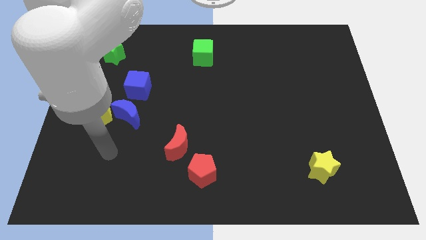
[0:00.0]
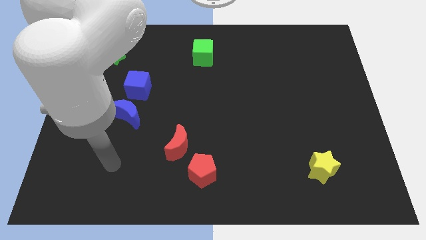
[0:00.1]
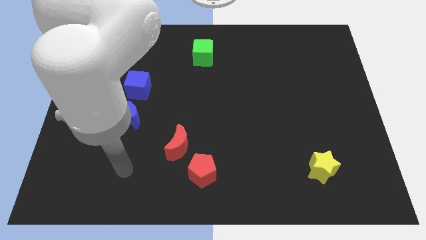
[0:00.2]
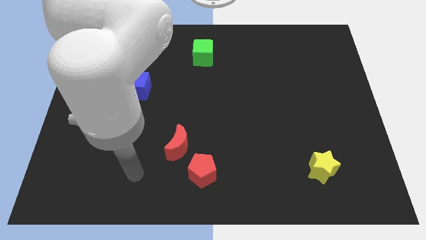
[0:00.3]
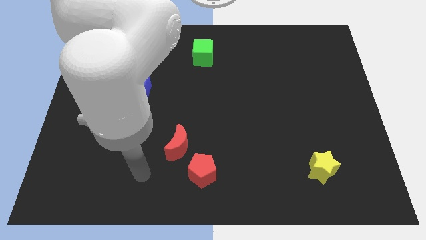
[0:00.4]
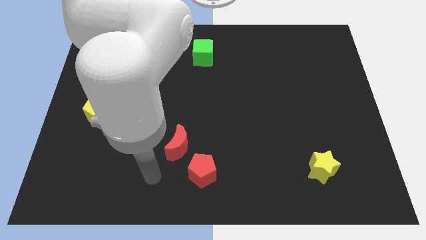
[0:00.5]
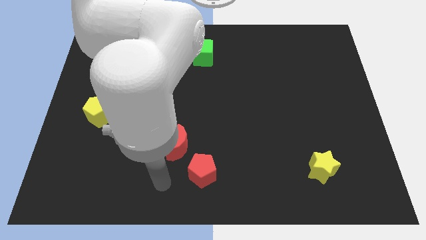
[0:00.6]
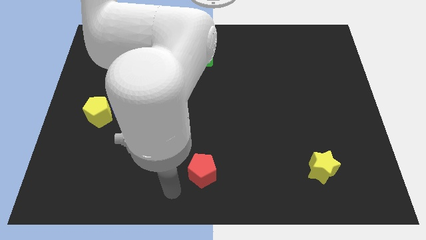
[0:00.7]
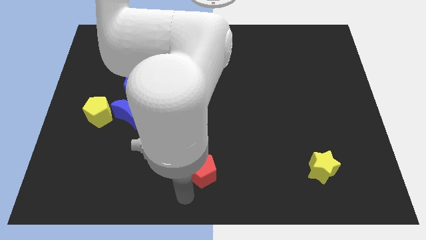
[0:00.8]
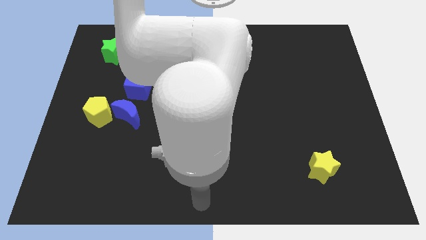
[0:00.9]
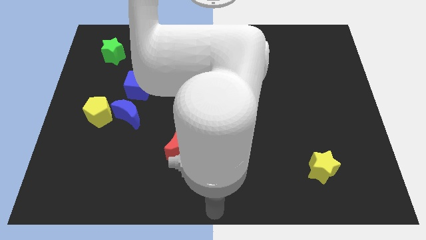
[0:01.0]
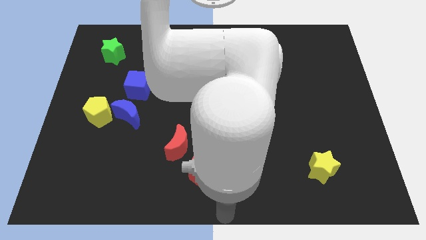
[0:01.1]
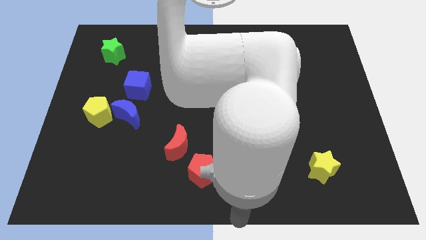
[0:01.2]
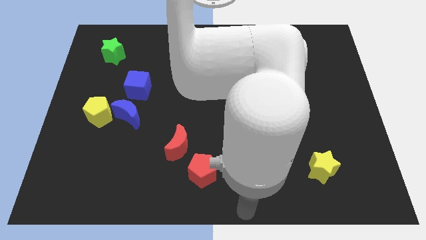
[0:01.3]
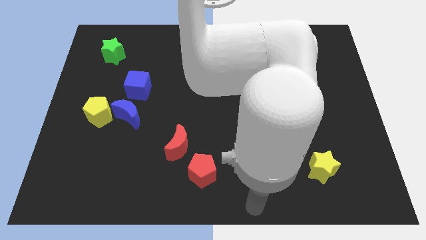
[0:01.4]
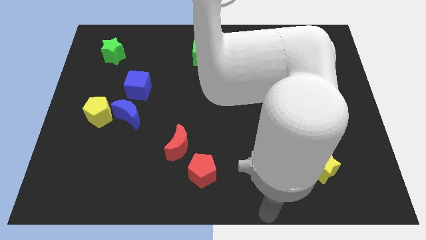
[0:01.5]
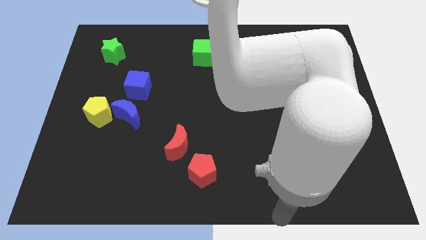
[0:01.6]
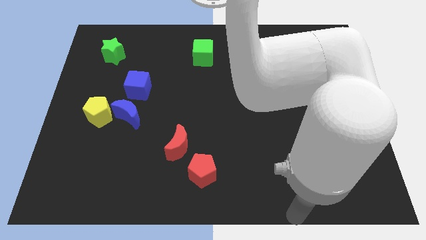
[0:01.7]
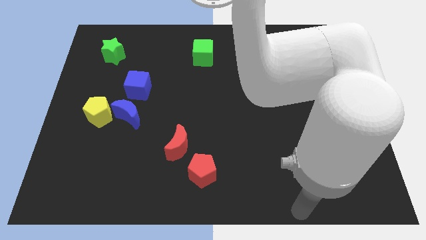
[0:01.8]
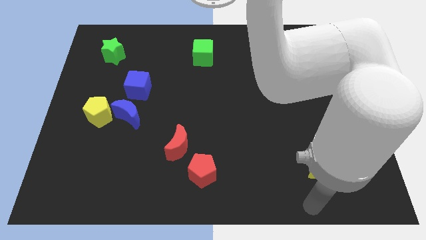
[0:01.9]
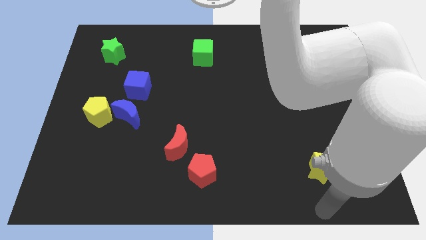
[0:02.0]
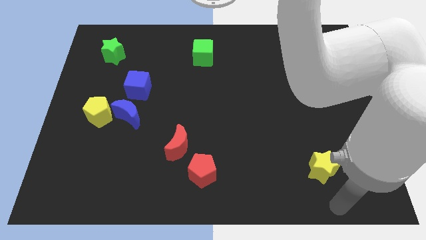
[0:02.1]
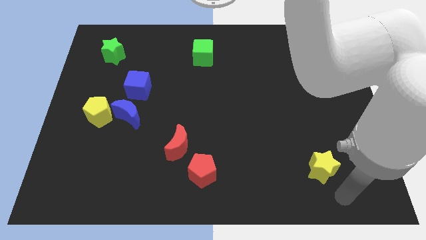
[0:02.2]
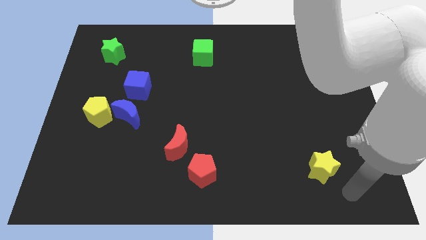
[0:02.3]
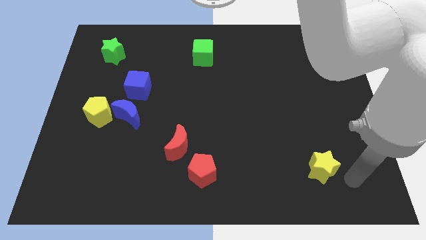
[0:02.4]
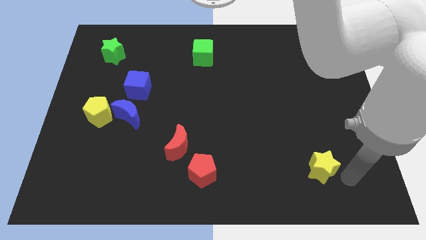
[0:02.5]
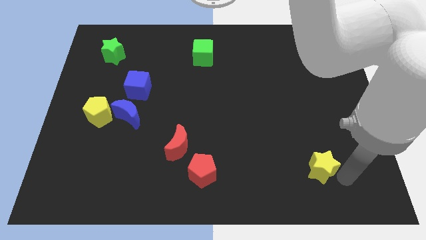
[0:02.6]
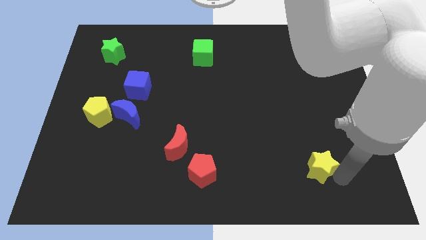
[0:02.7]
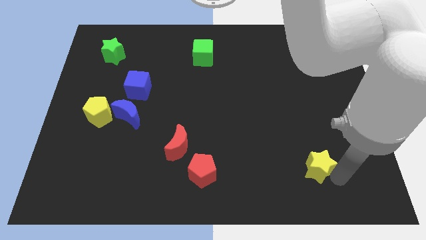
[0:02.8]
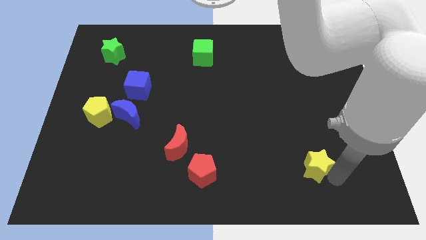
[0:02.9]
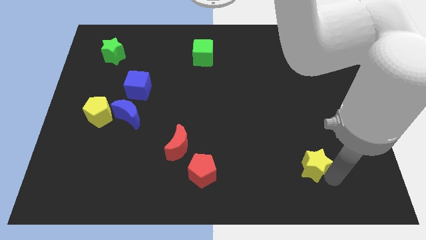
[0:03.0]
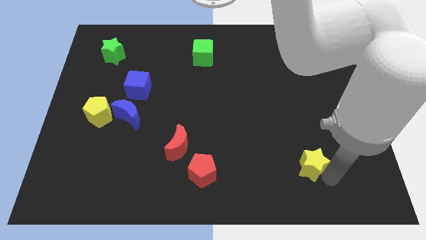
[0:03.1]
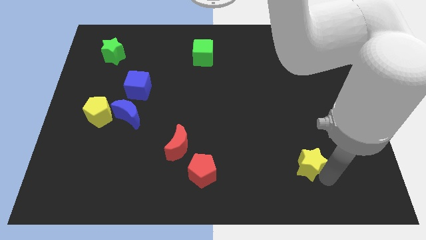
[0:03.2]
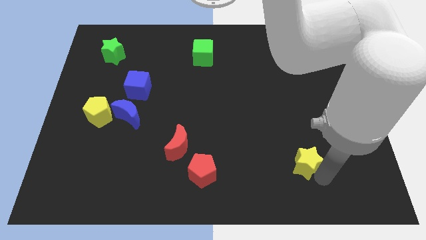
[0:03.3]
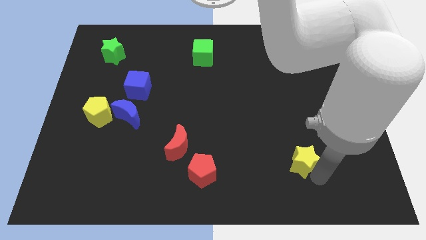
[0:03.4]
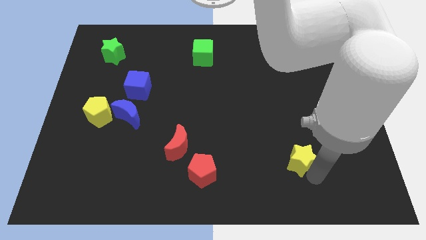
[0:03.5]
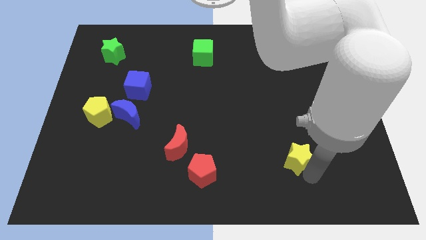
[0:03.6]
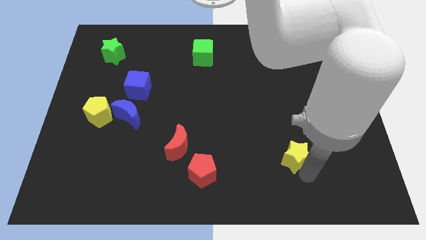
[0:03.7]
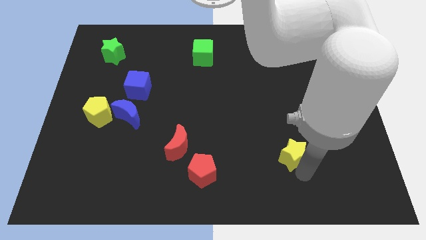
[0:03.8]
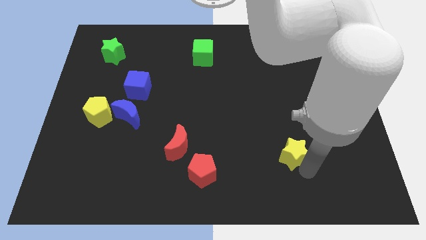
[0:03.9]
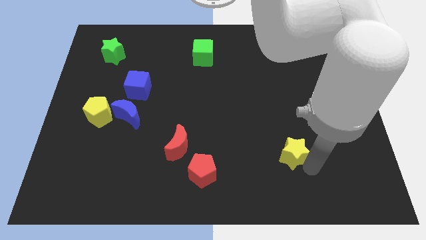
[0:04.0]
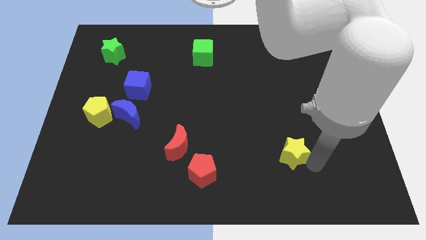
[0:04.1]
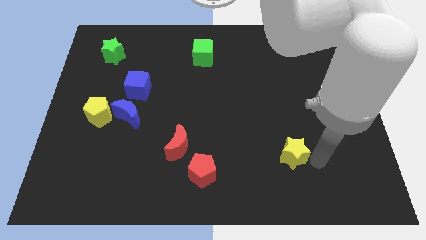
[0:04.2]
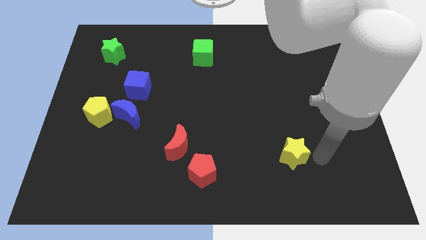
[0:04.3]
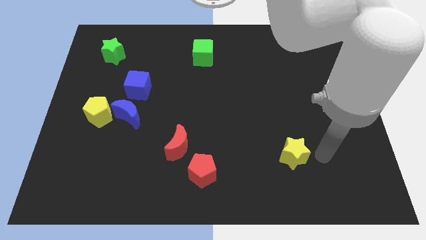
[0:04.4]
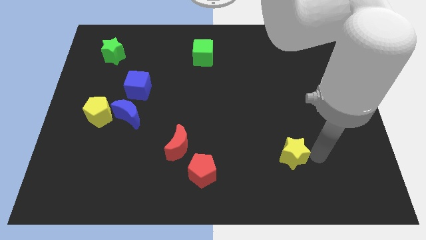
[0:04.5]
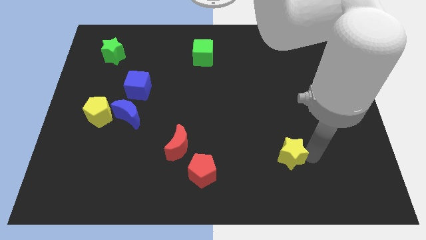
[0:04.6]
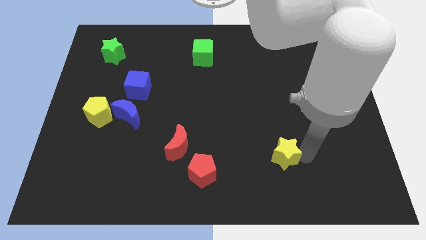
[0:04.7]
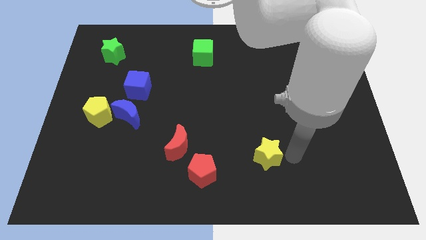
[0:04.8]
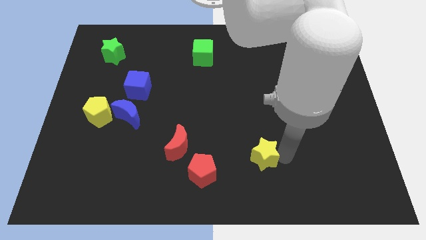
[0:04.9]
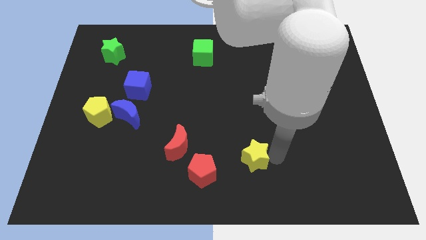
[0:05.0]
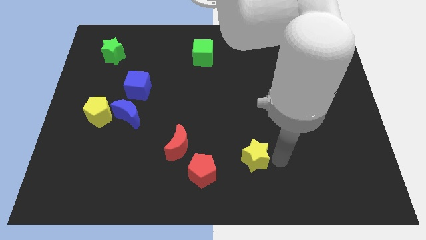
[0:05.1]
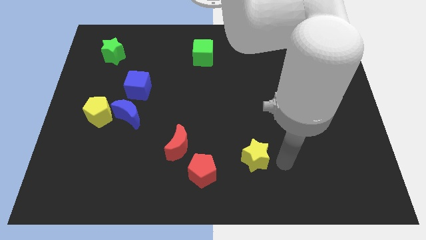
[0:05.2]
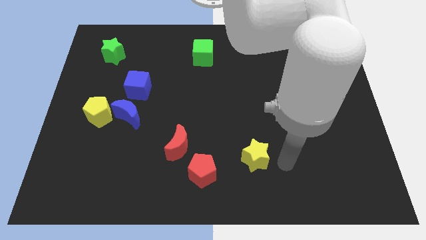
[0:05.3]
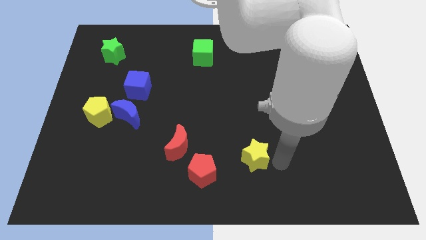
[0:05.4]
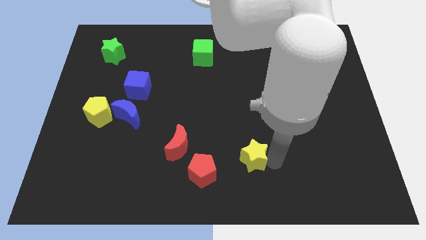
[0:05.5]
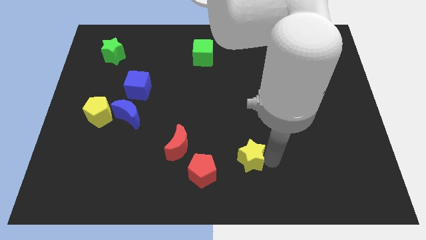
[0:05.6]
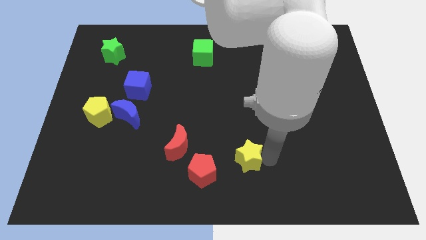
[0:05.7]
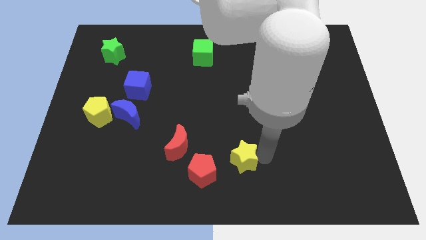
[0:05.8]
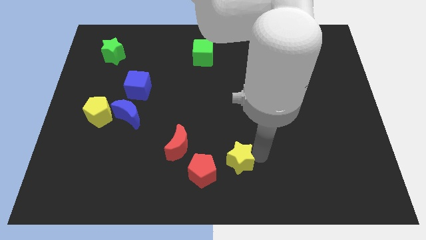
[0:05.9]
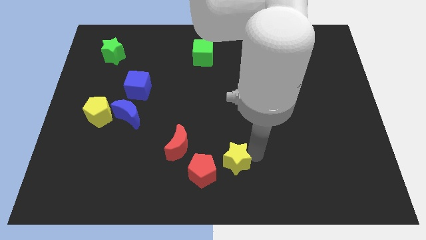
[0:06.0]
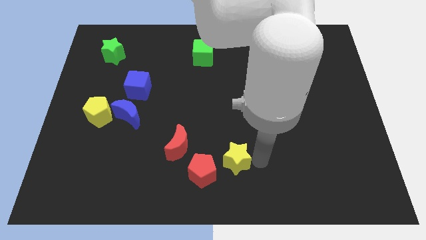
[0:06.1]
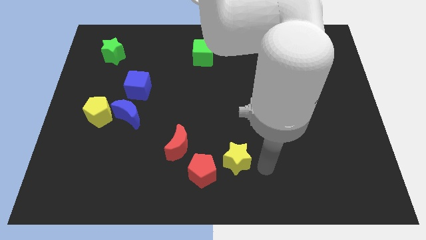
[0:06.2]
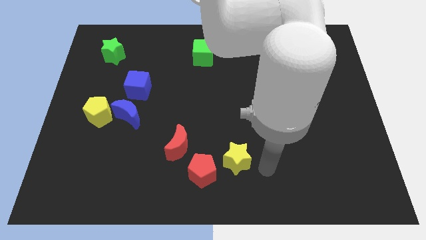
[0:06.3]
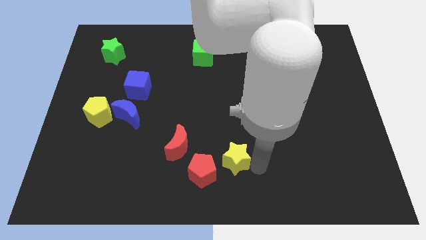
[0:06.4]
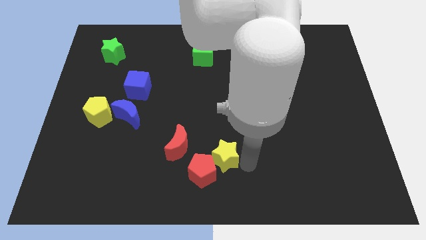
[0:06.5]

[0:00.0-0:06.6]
slide the yellow star to the left

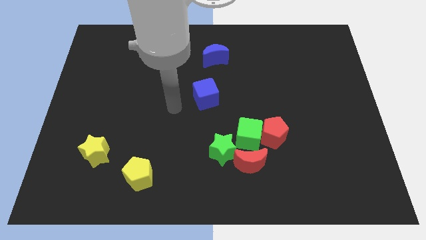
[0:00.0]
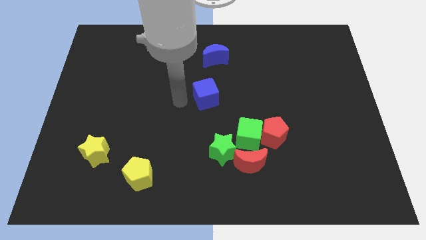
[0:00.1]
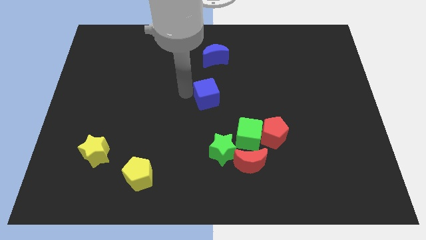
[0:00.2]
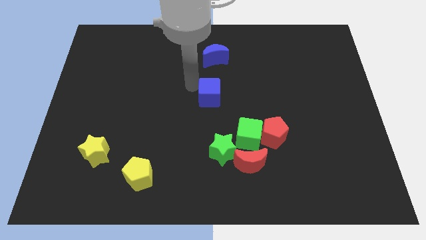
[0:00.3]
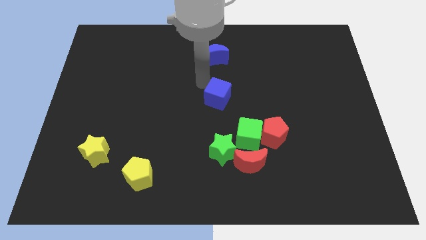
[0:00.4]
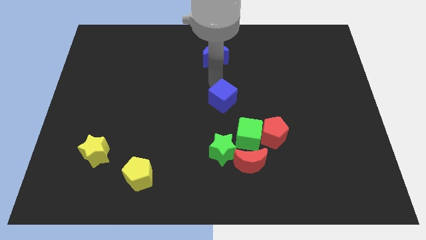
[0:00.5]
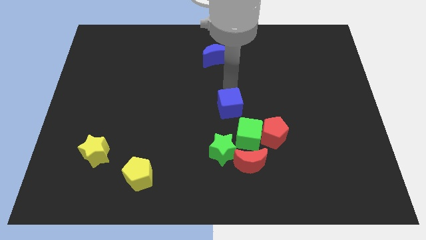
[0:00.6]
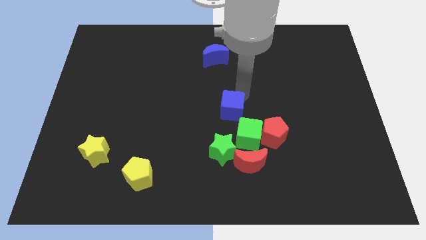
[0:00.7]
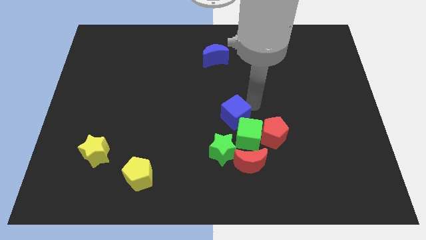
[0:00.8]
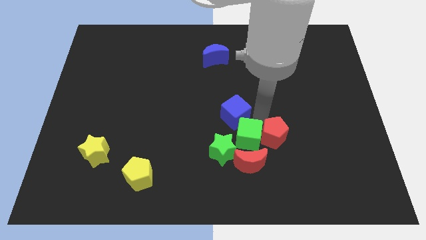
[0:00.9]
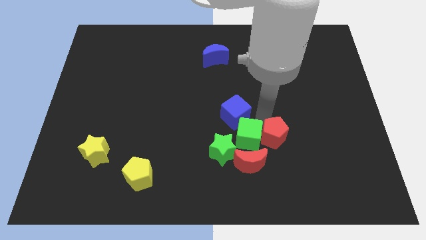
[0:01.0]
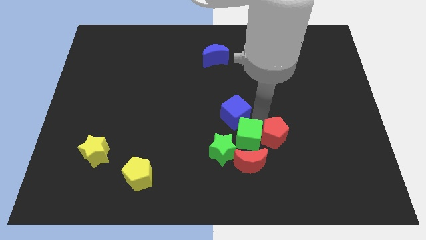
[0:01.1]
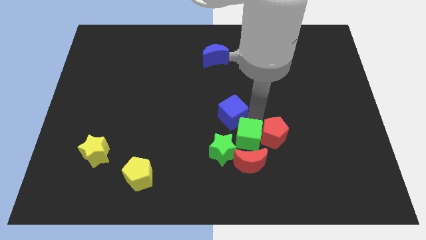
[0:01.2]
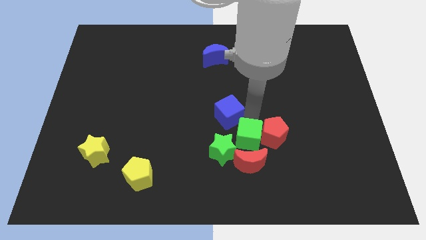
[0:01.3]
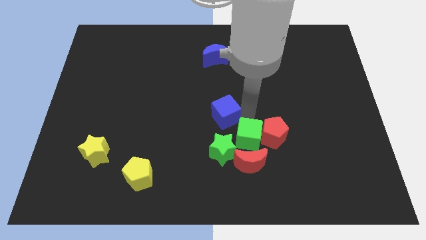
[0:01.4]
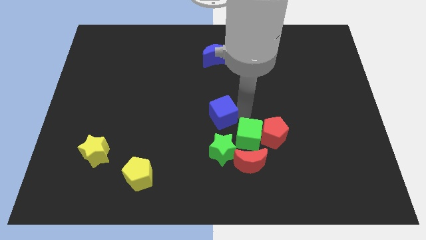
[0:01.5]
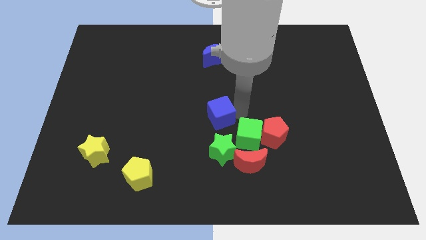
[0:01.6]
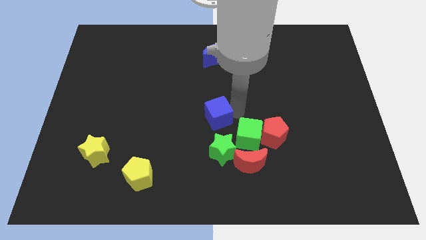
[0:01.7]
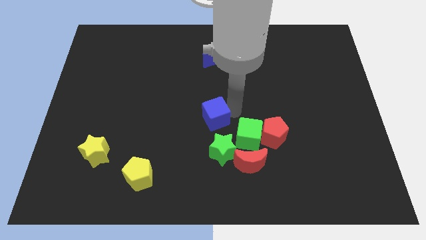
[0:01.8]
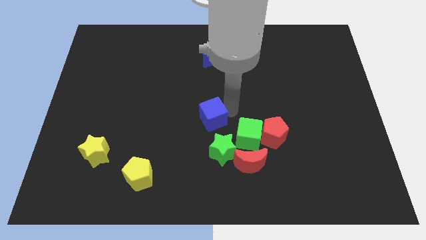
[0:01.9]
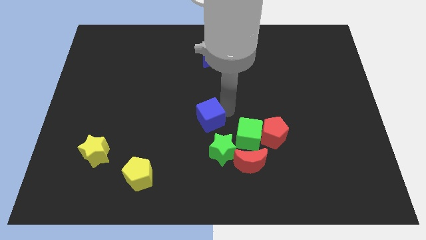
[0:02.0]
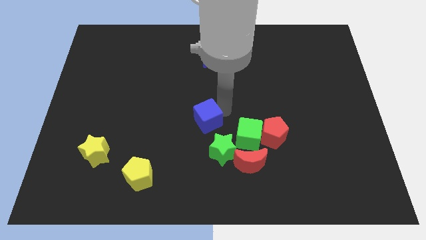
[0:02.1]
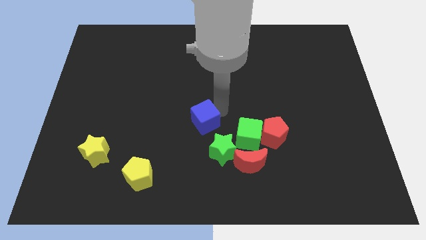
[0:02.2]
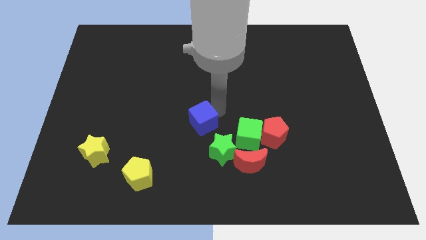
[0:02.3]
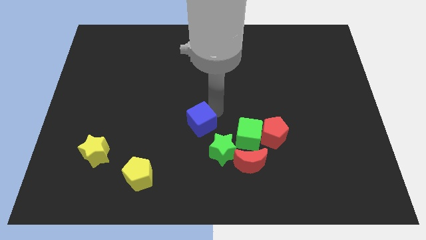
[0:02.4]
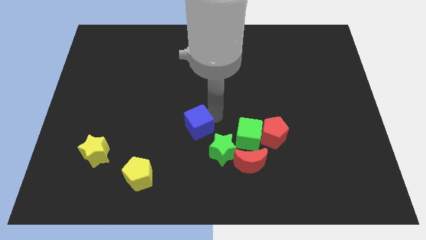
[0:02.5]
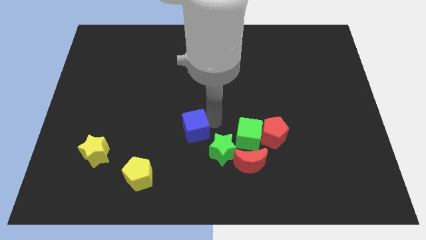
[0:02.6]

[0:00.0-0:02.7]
slide the blue cube a little bit diagonally downwards and to the left
